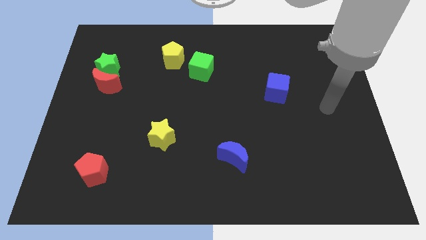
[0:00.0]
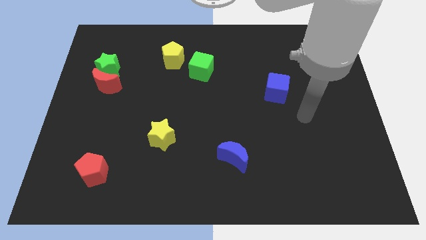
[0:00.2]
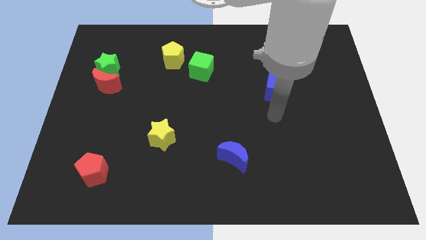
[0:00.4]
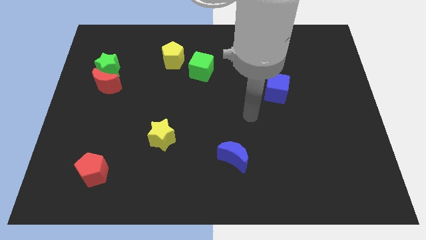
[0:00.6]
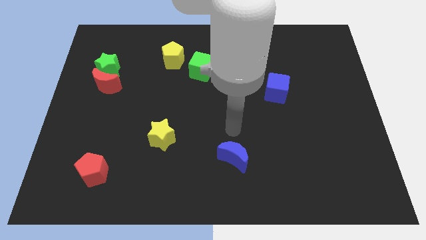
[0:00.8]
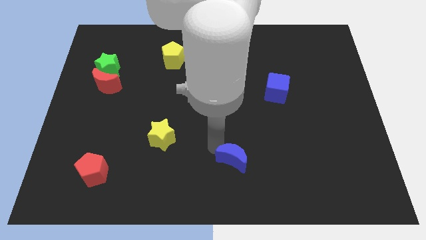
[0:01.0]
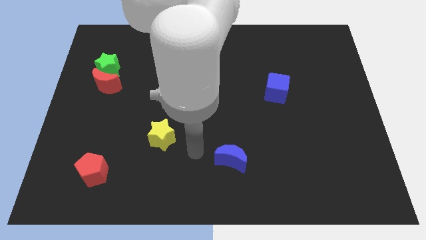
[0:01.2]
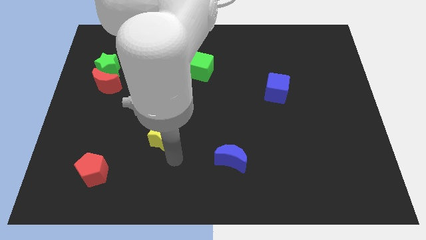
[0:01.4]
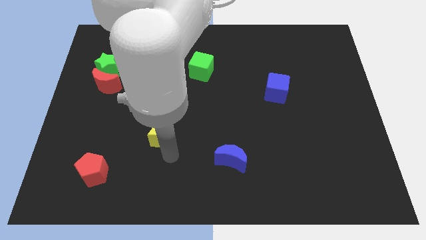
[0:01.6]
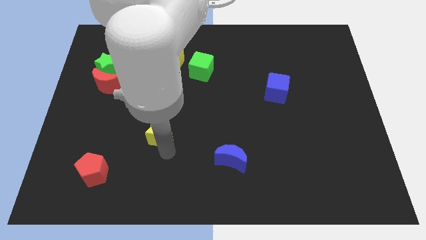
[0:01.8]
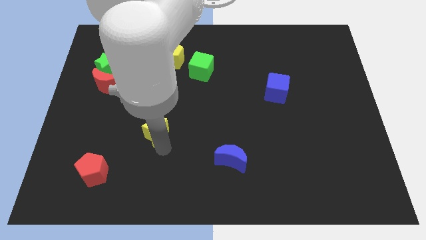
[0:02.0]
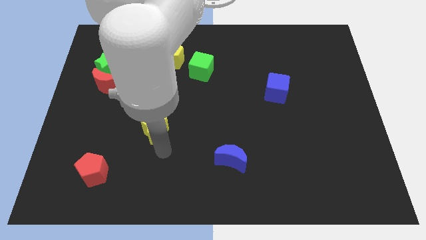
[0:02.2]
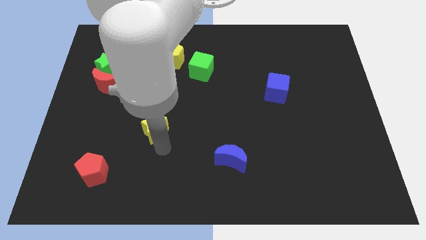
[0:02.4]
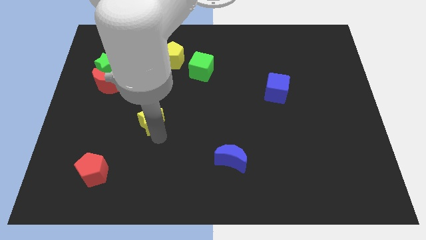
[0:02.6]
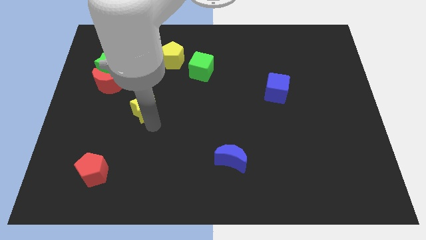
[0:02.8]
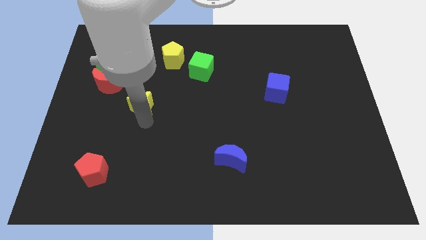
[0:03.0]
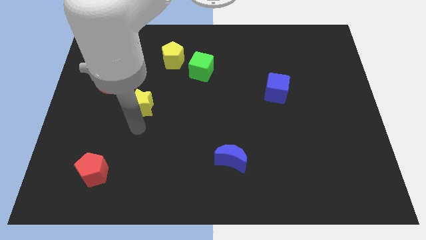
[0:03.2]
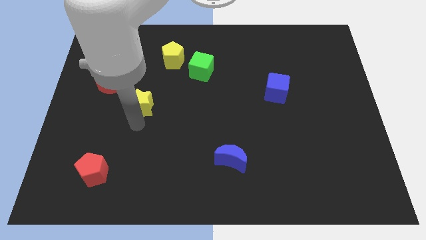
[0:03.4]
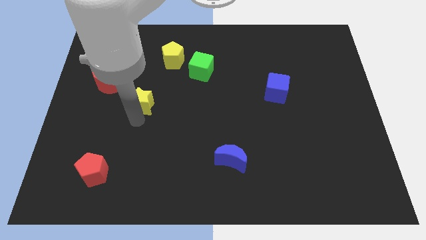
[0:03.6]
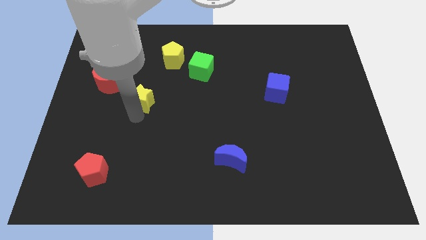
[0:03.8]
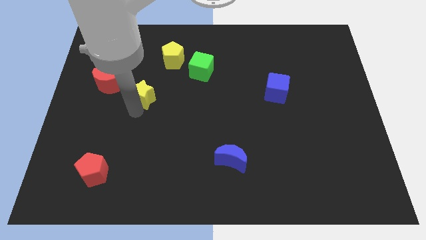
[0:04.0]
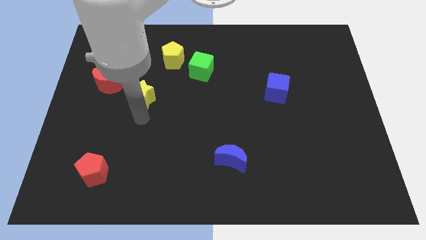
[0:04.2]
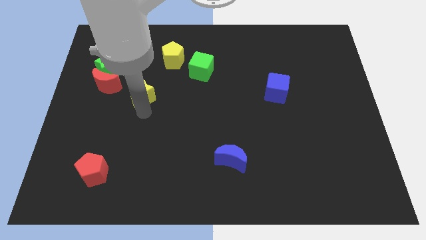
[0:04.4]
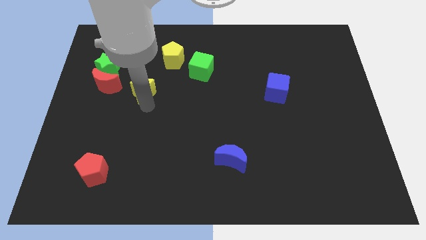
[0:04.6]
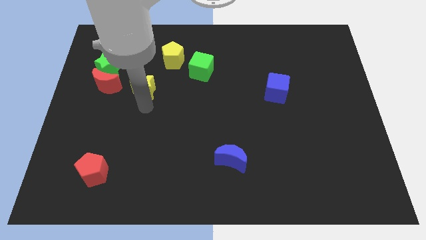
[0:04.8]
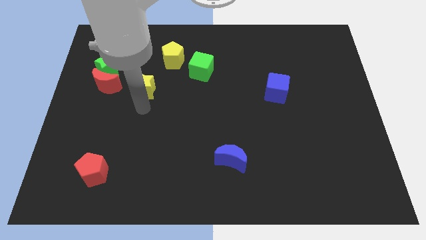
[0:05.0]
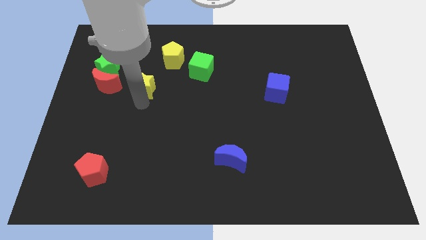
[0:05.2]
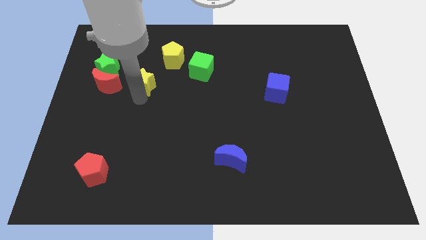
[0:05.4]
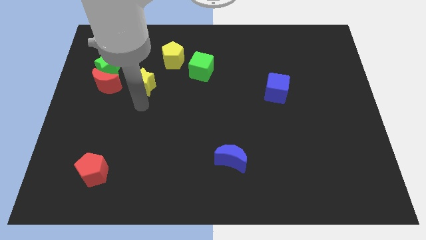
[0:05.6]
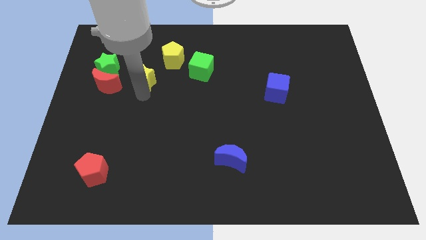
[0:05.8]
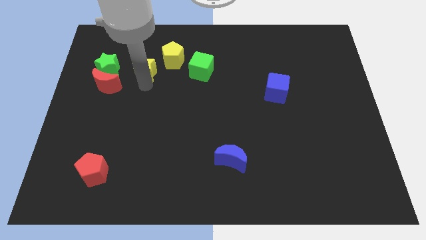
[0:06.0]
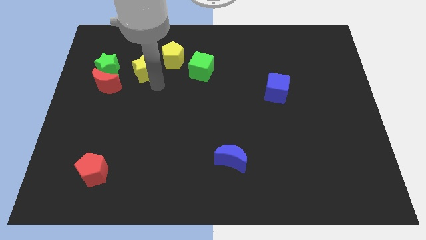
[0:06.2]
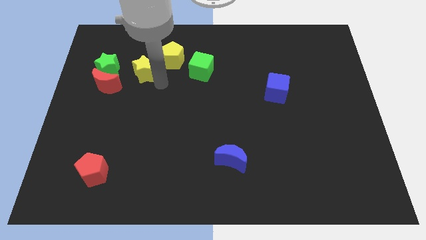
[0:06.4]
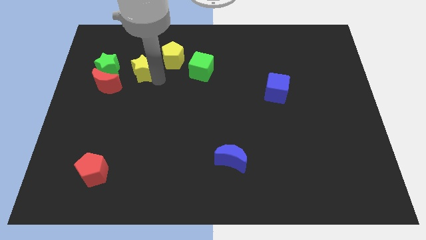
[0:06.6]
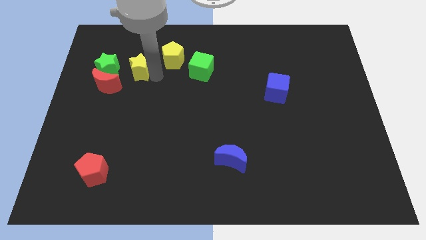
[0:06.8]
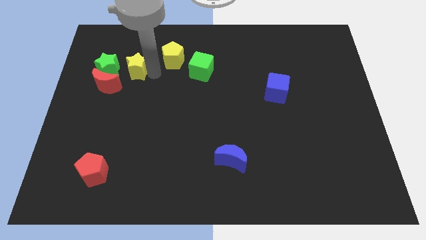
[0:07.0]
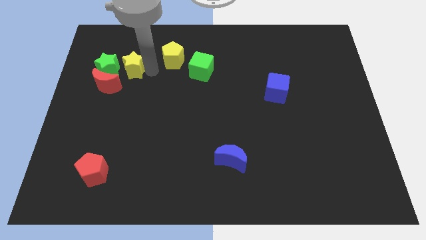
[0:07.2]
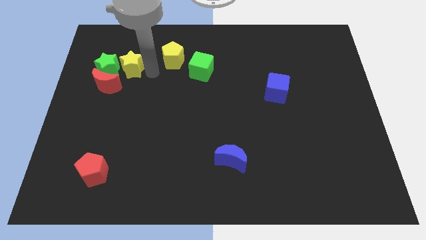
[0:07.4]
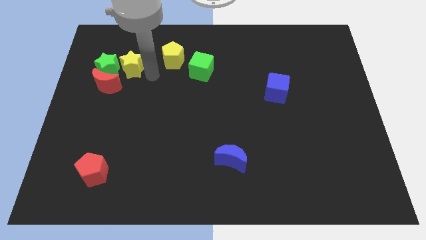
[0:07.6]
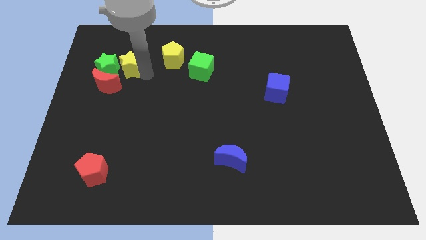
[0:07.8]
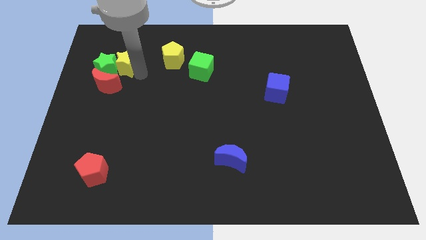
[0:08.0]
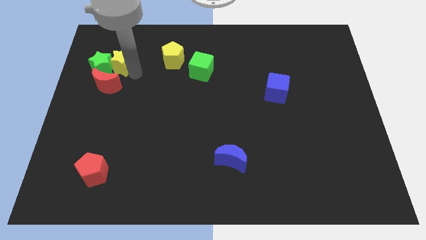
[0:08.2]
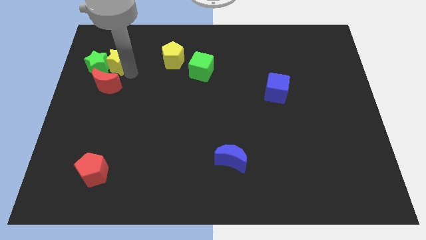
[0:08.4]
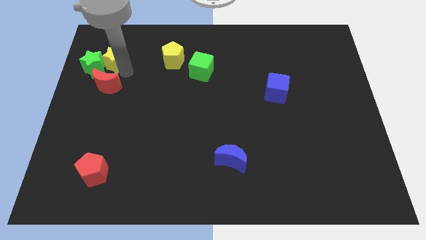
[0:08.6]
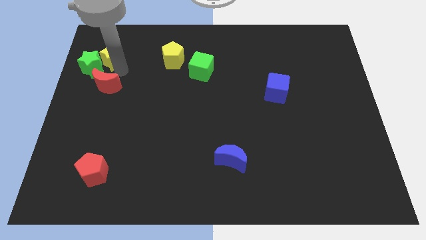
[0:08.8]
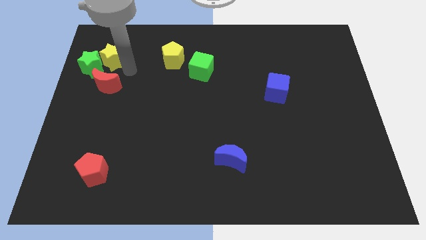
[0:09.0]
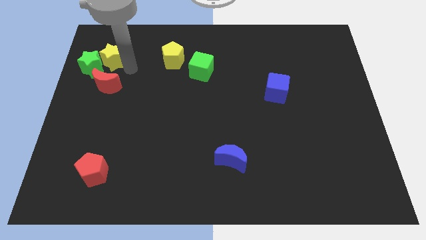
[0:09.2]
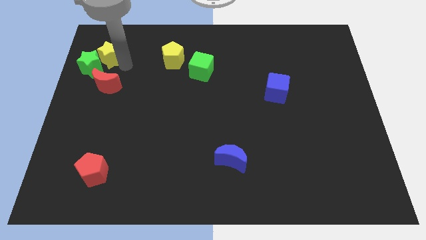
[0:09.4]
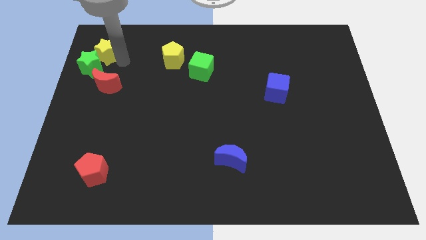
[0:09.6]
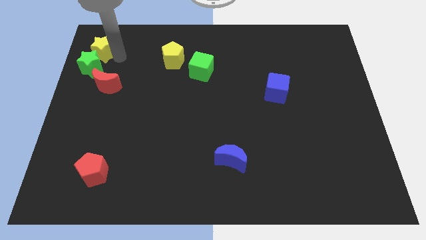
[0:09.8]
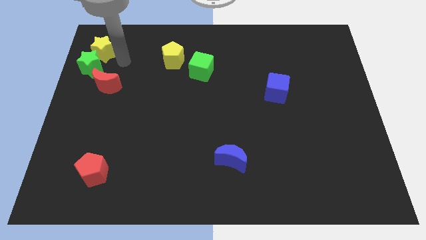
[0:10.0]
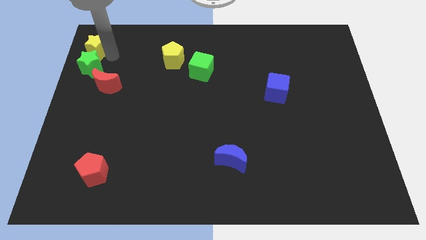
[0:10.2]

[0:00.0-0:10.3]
push the yellow star to the upper left corner

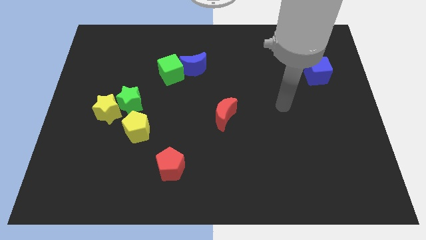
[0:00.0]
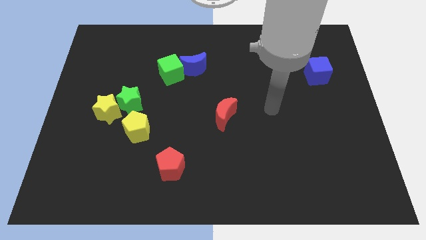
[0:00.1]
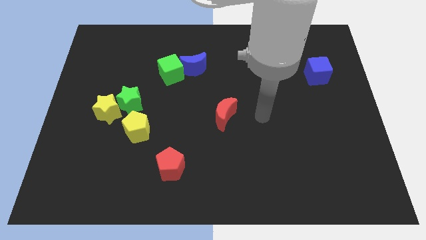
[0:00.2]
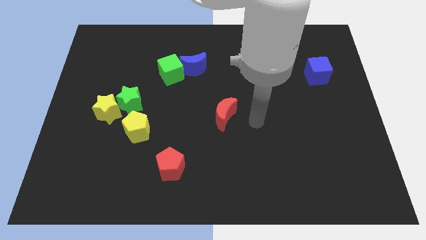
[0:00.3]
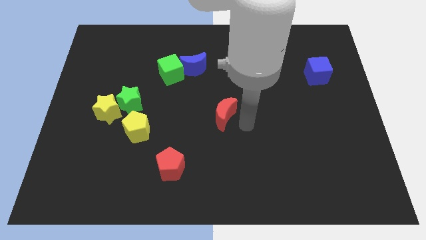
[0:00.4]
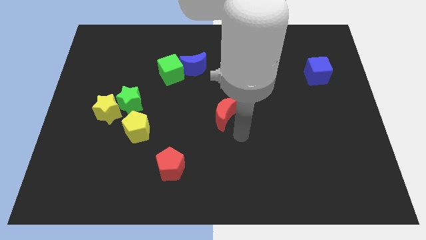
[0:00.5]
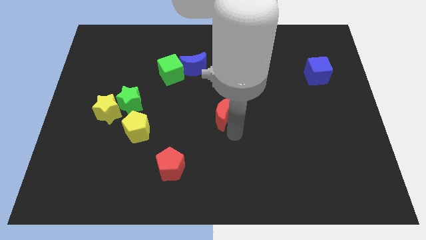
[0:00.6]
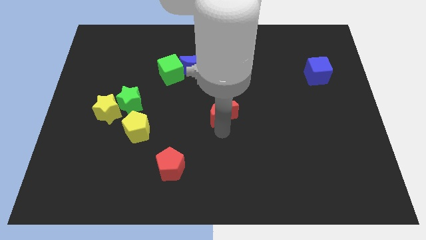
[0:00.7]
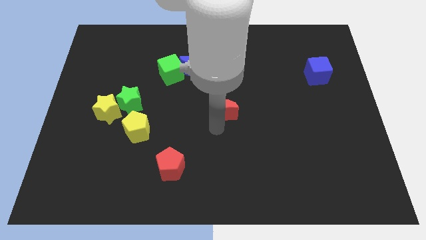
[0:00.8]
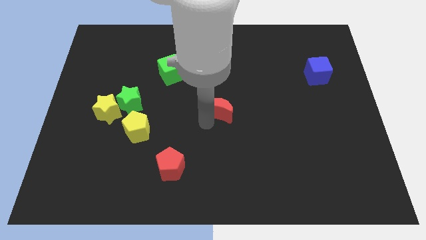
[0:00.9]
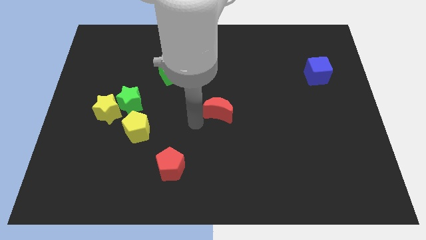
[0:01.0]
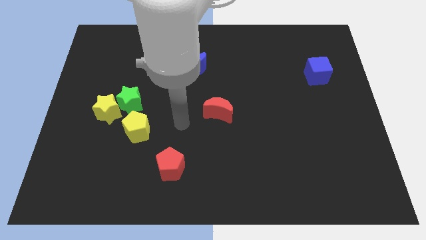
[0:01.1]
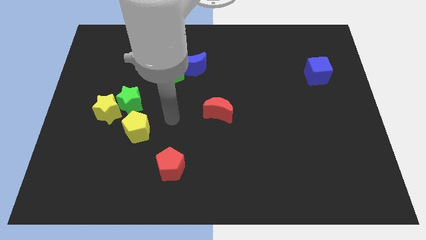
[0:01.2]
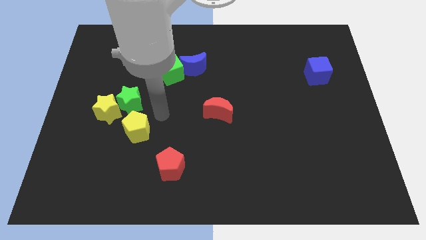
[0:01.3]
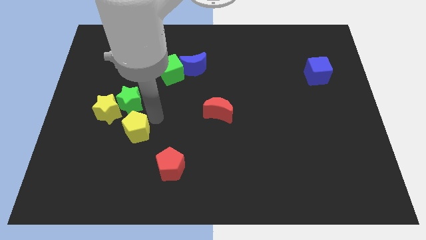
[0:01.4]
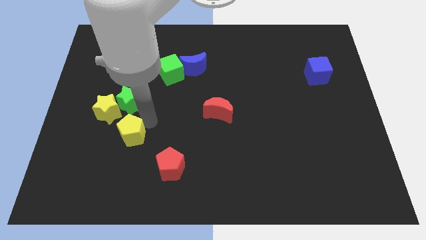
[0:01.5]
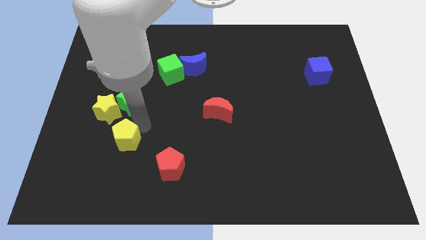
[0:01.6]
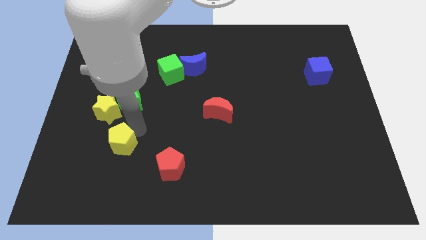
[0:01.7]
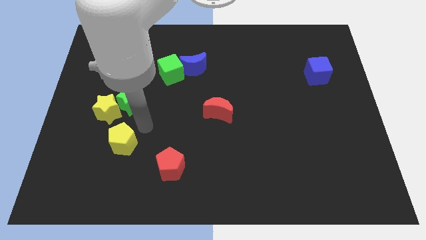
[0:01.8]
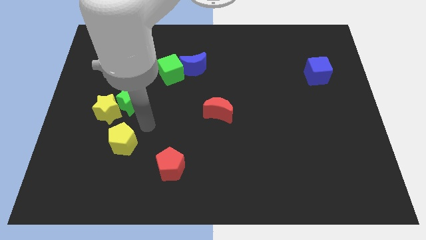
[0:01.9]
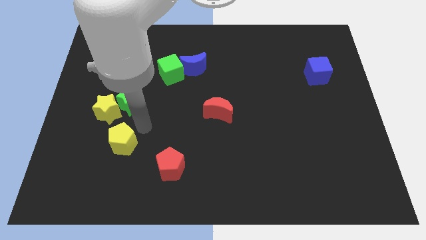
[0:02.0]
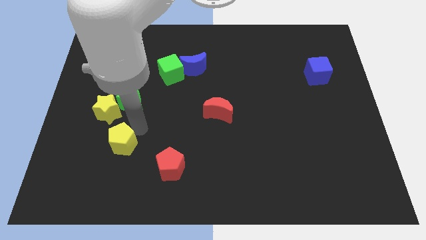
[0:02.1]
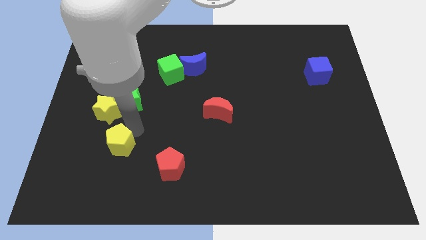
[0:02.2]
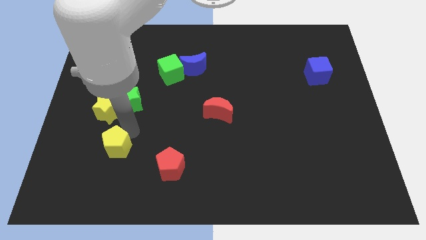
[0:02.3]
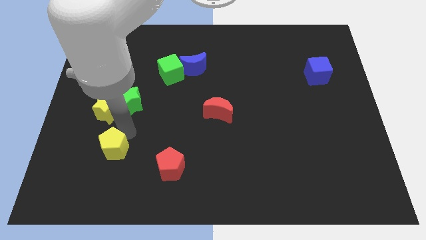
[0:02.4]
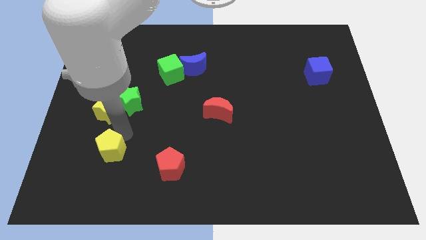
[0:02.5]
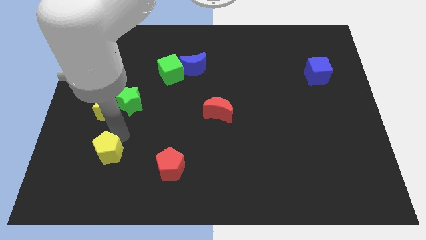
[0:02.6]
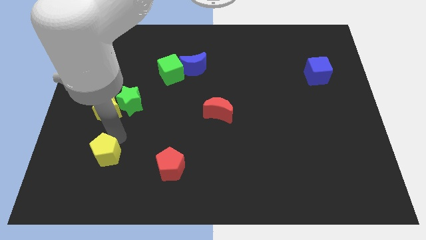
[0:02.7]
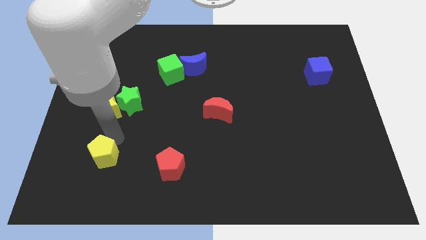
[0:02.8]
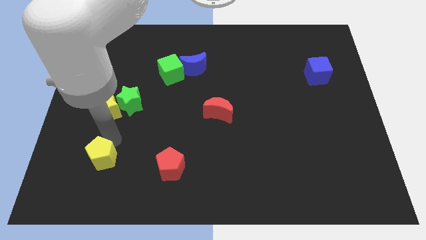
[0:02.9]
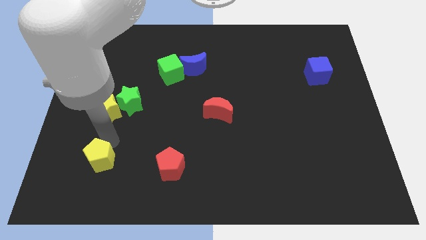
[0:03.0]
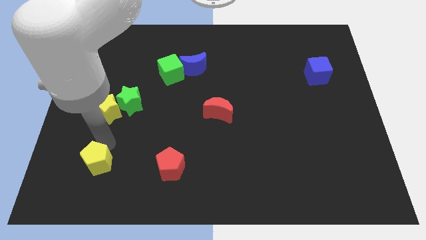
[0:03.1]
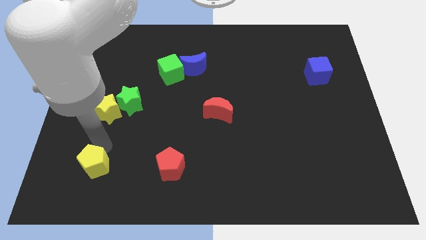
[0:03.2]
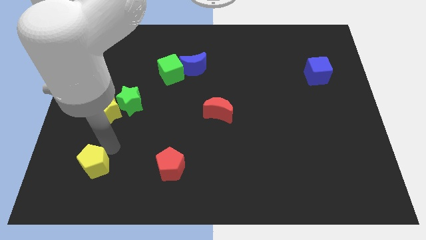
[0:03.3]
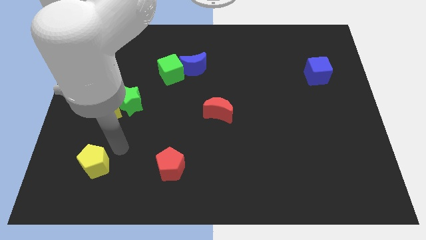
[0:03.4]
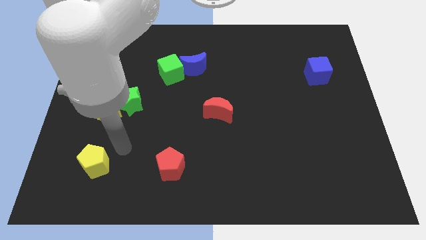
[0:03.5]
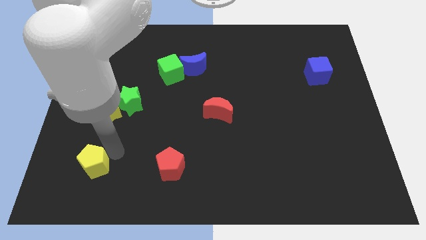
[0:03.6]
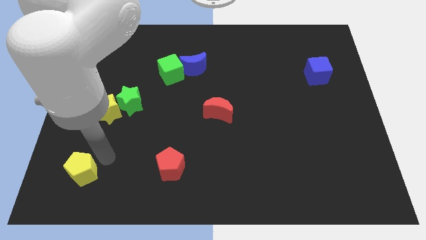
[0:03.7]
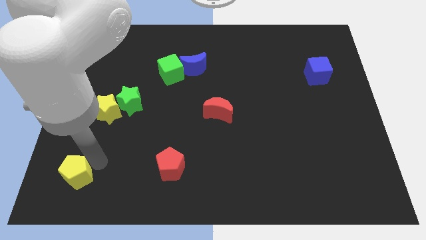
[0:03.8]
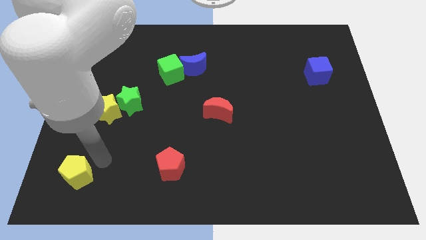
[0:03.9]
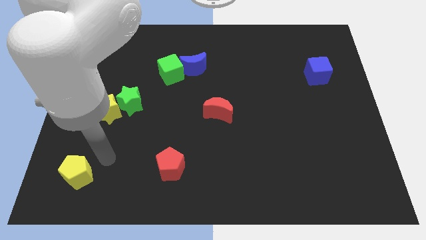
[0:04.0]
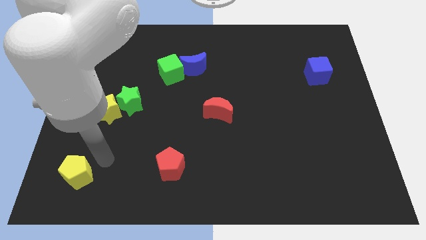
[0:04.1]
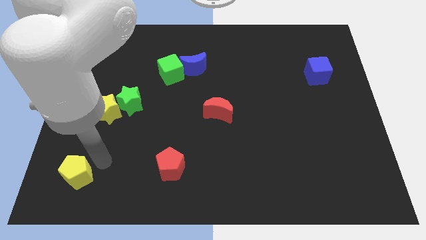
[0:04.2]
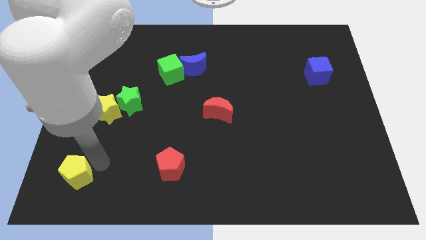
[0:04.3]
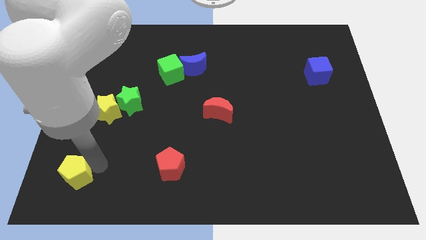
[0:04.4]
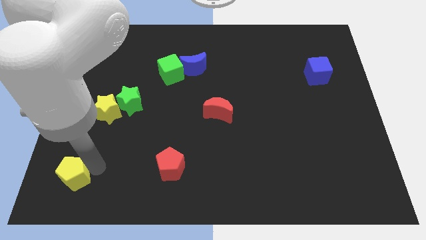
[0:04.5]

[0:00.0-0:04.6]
push the yellow pentagon to the bottom left
